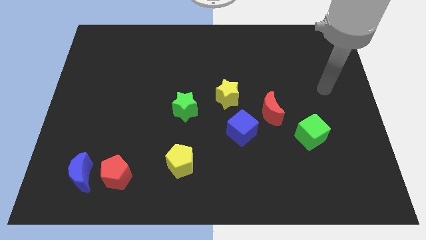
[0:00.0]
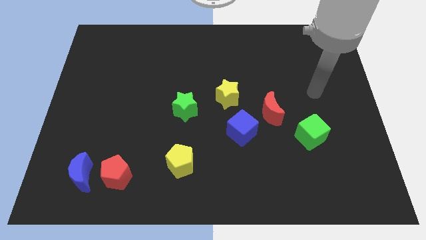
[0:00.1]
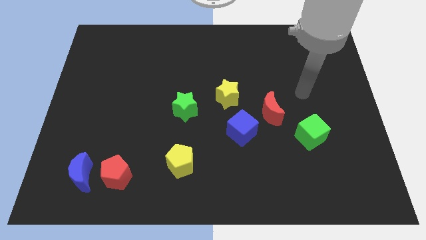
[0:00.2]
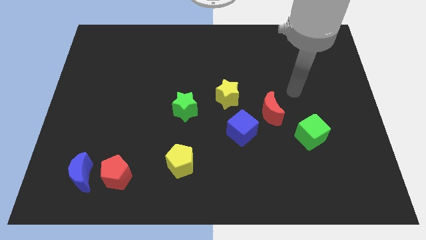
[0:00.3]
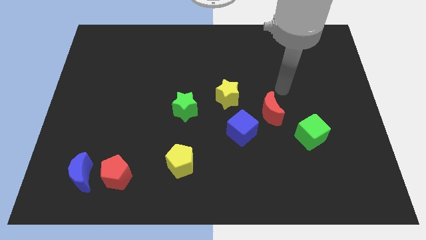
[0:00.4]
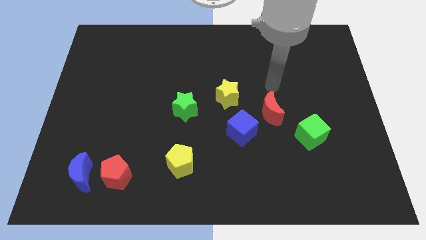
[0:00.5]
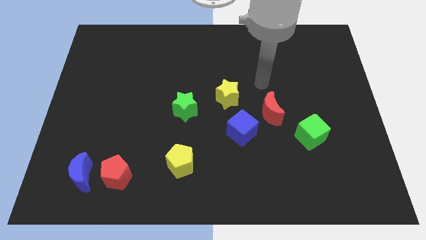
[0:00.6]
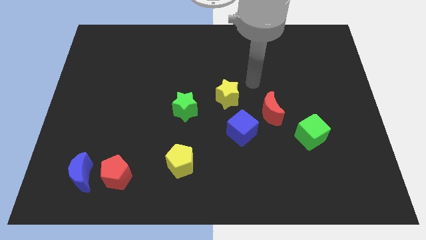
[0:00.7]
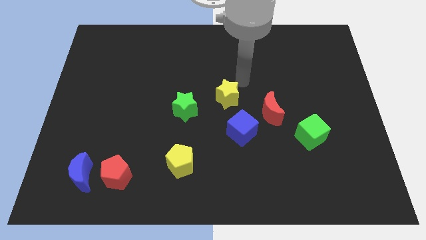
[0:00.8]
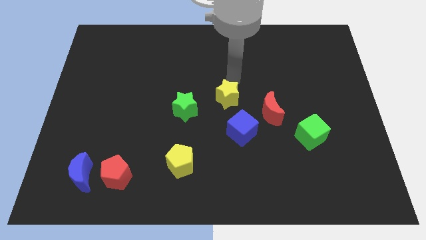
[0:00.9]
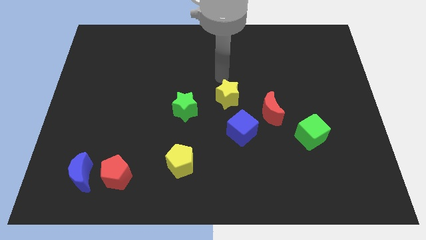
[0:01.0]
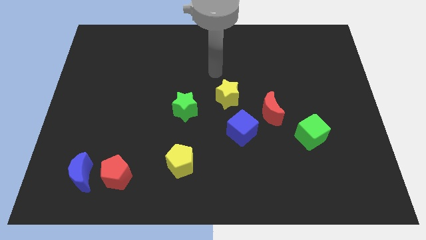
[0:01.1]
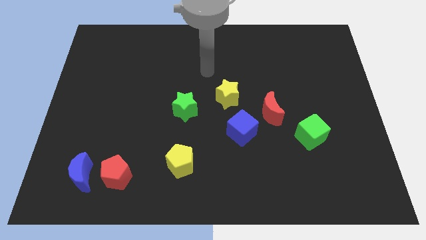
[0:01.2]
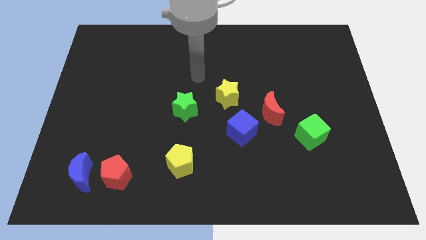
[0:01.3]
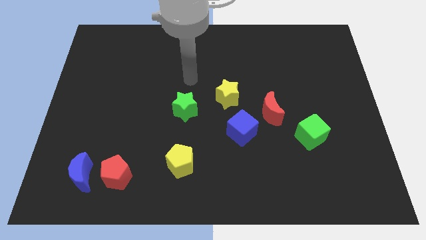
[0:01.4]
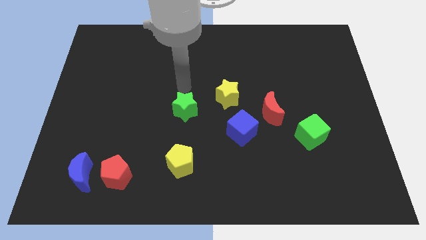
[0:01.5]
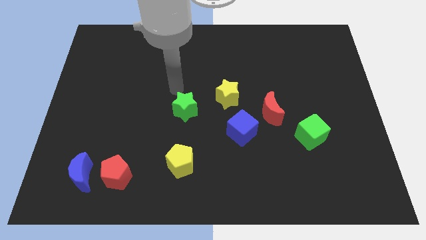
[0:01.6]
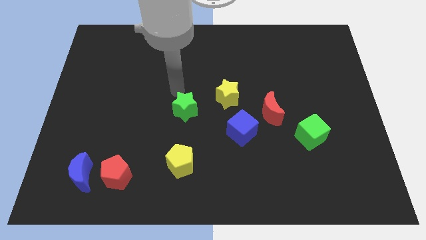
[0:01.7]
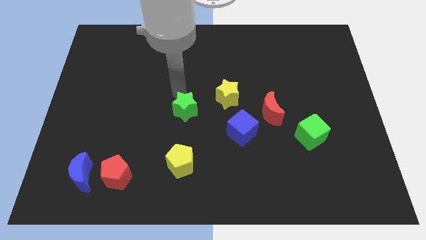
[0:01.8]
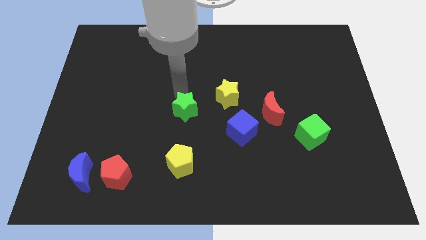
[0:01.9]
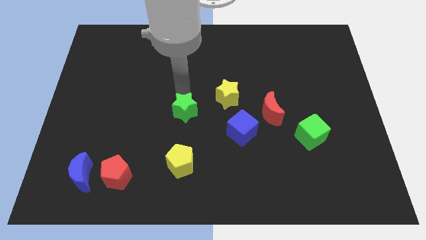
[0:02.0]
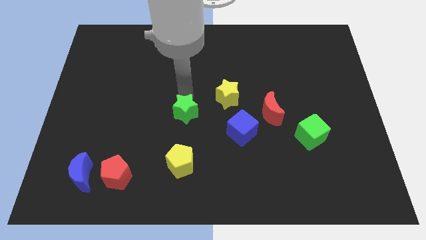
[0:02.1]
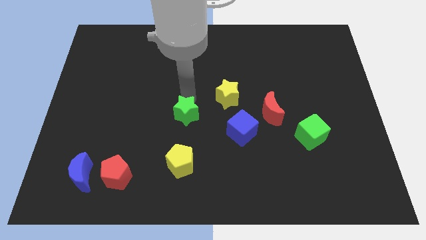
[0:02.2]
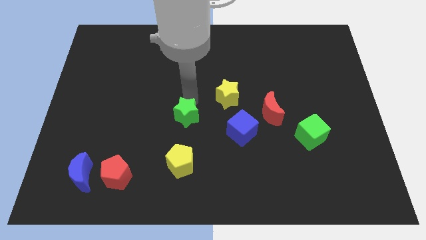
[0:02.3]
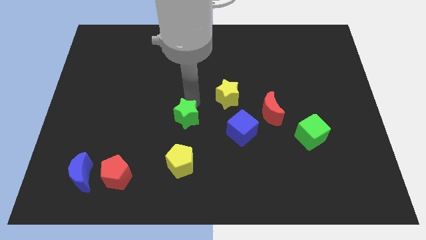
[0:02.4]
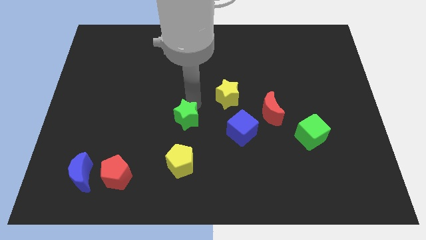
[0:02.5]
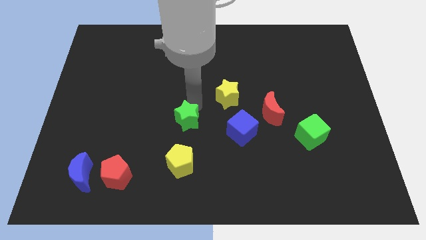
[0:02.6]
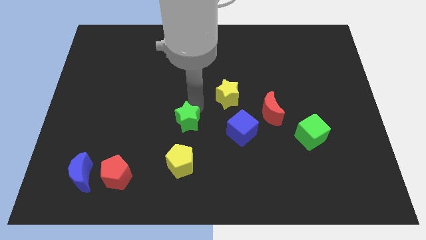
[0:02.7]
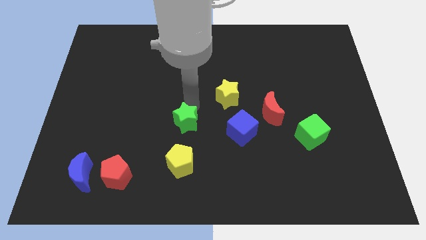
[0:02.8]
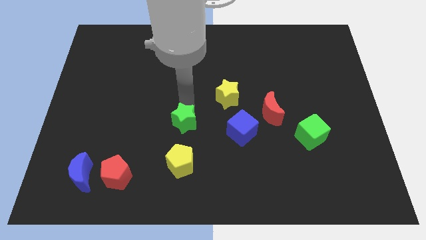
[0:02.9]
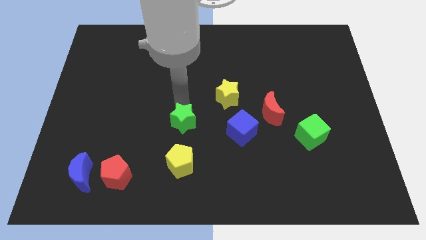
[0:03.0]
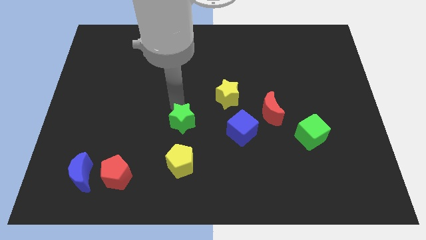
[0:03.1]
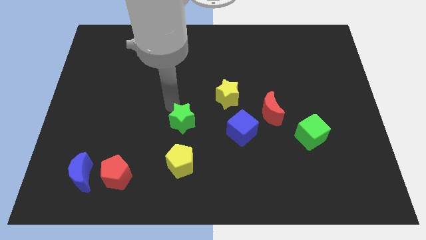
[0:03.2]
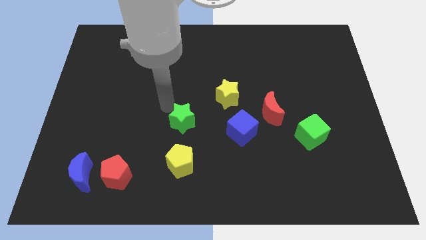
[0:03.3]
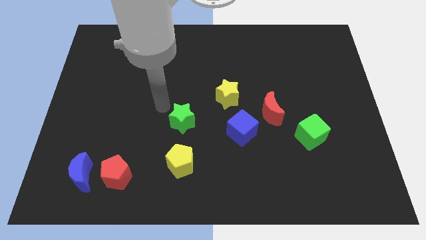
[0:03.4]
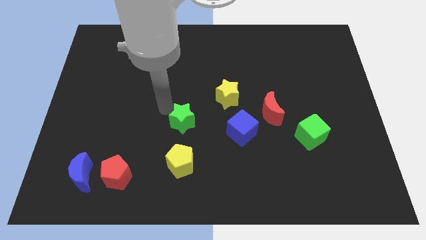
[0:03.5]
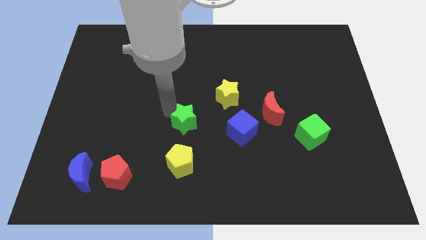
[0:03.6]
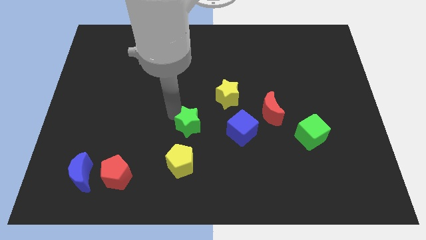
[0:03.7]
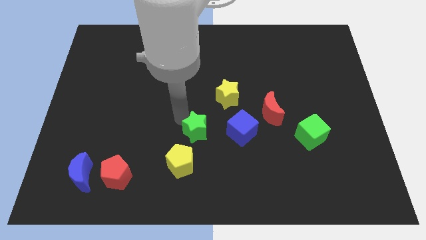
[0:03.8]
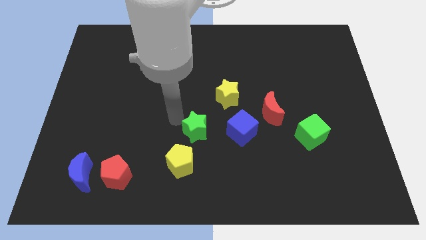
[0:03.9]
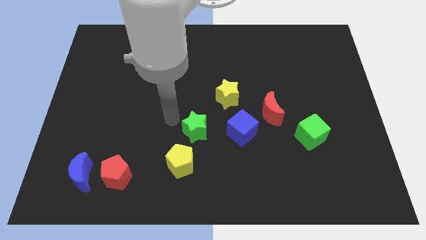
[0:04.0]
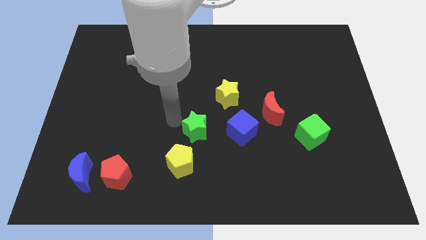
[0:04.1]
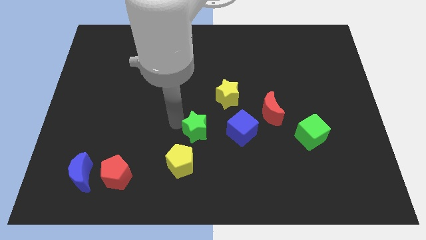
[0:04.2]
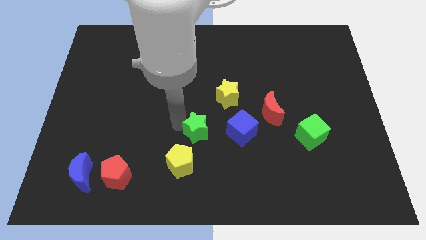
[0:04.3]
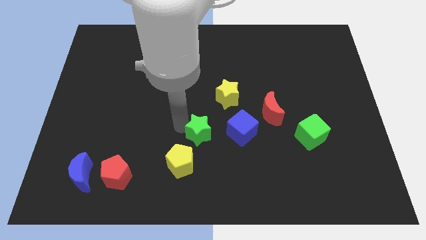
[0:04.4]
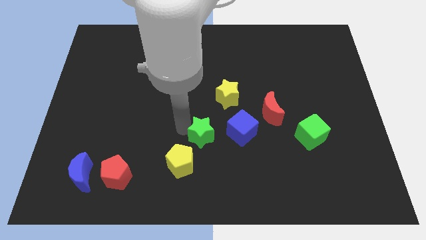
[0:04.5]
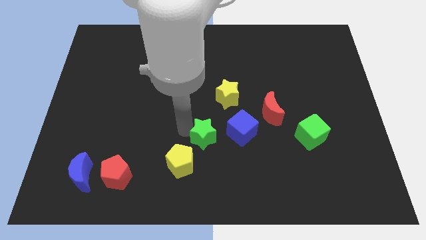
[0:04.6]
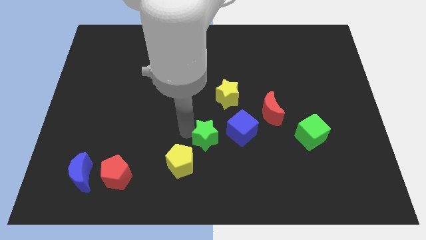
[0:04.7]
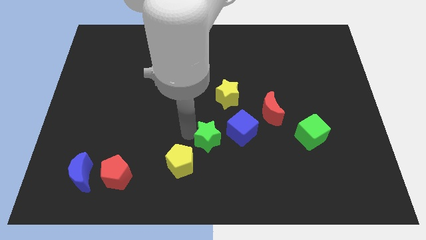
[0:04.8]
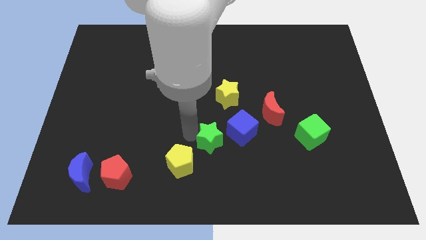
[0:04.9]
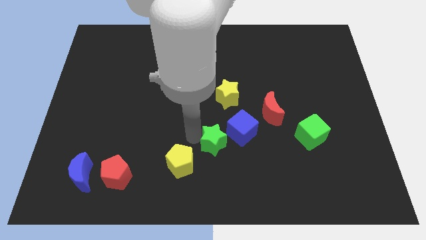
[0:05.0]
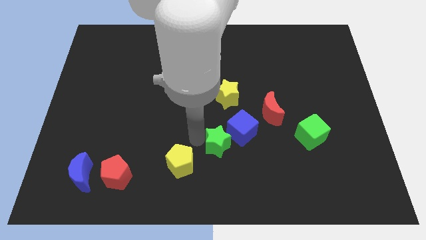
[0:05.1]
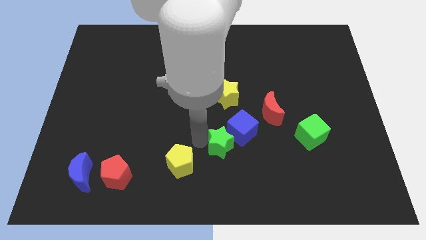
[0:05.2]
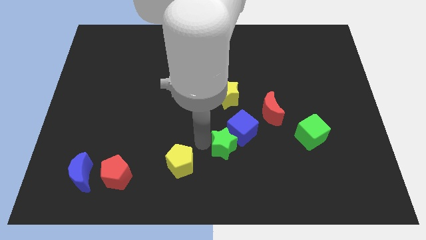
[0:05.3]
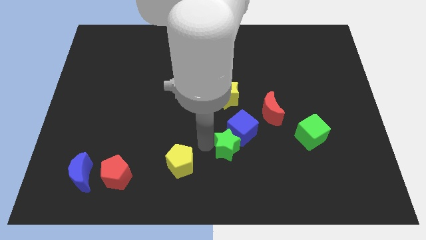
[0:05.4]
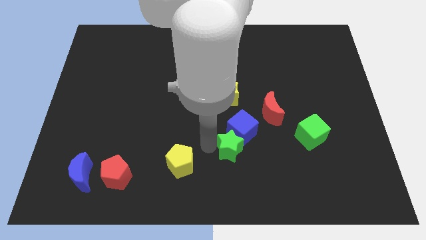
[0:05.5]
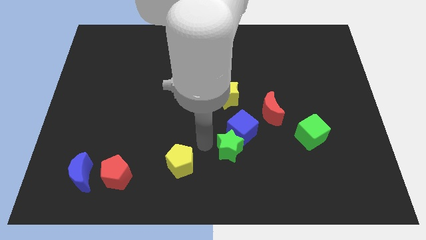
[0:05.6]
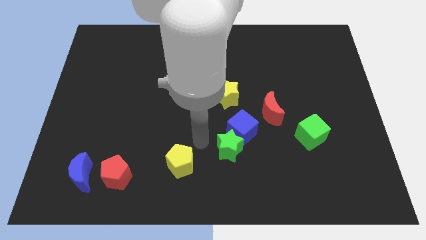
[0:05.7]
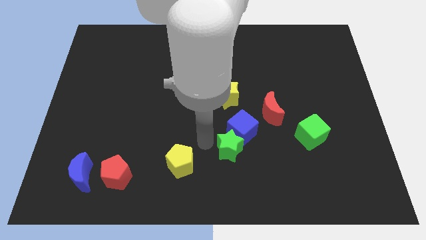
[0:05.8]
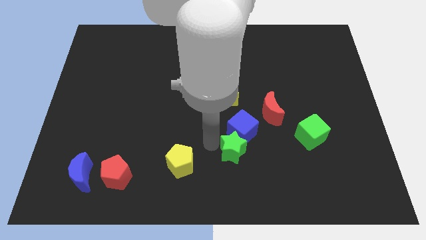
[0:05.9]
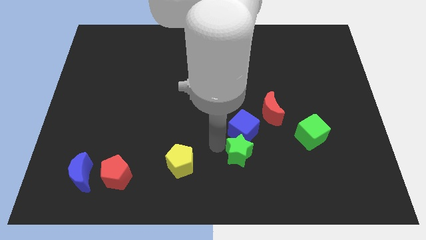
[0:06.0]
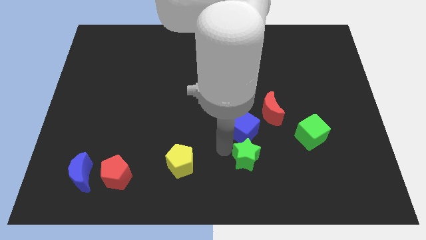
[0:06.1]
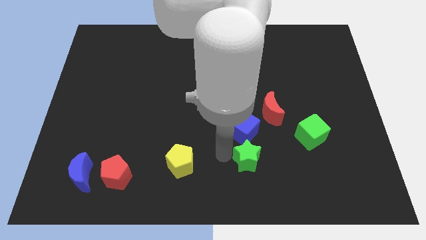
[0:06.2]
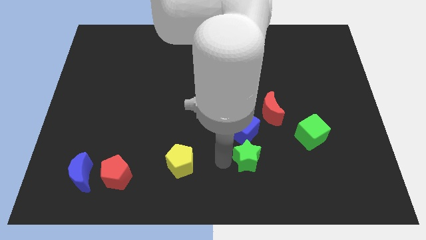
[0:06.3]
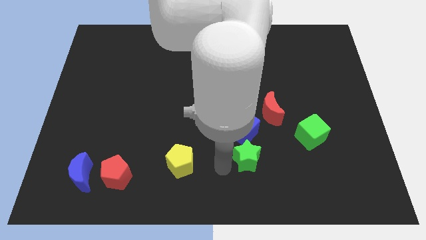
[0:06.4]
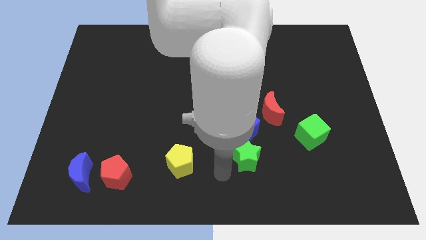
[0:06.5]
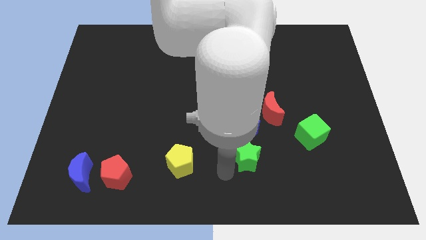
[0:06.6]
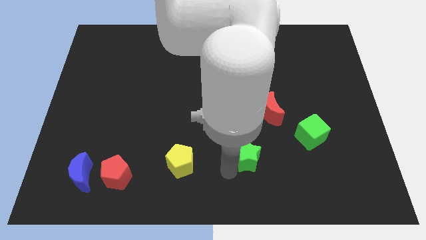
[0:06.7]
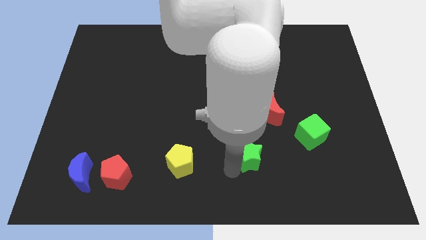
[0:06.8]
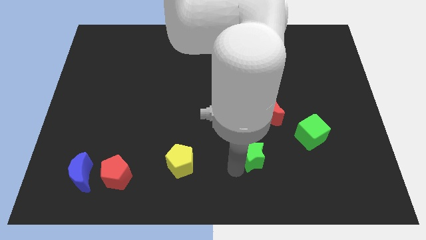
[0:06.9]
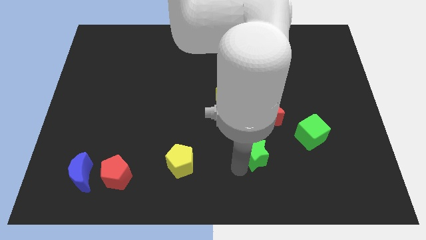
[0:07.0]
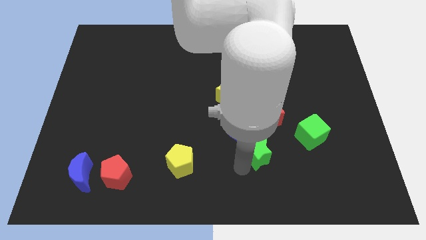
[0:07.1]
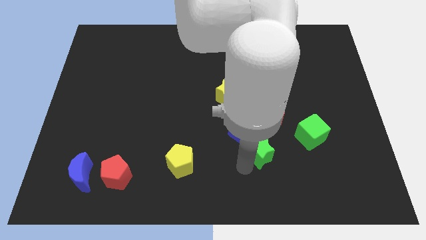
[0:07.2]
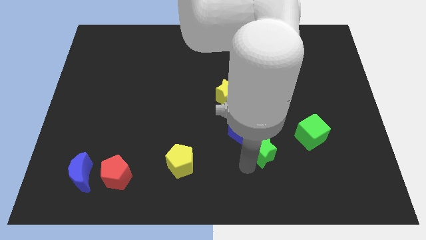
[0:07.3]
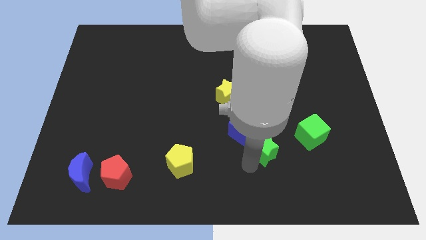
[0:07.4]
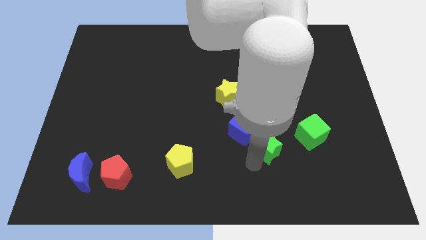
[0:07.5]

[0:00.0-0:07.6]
move the green star right of the blue cube
